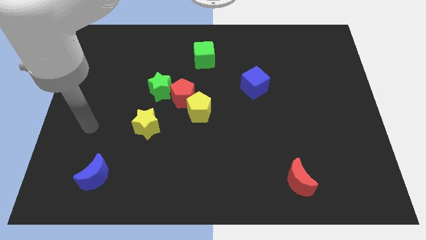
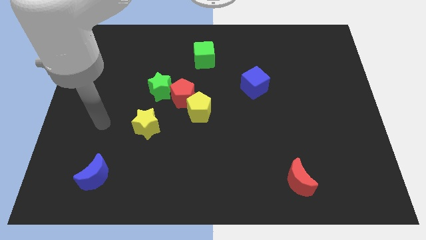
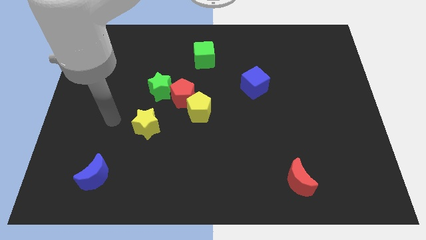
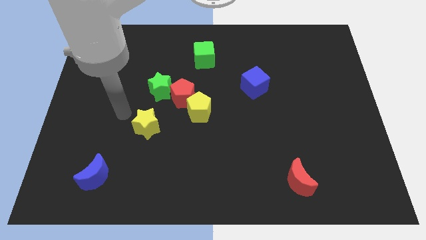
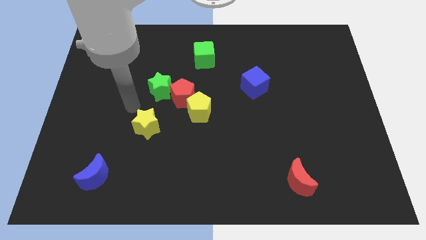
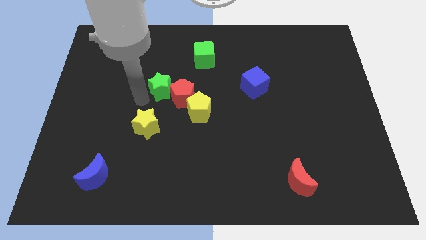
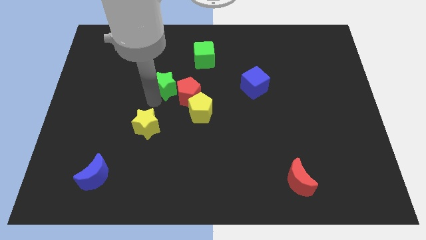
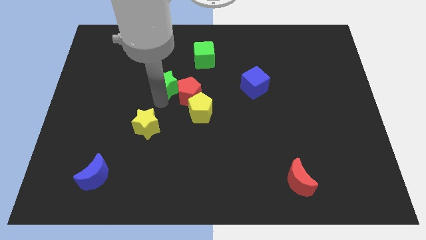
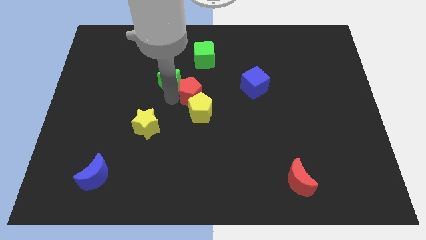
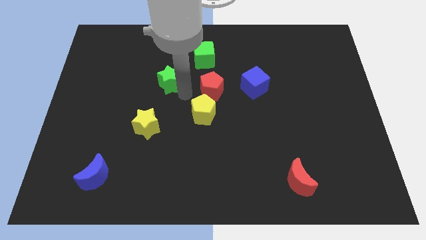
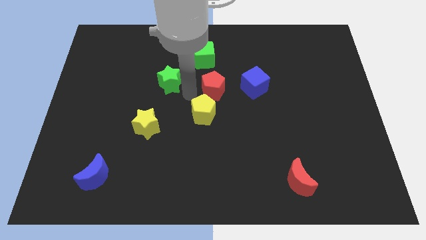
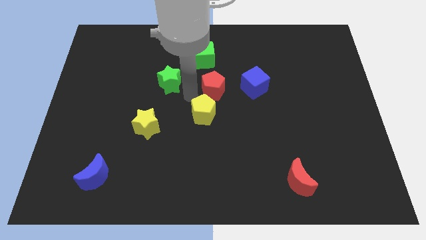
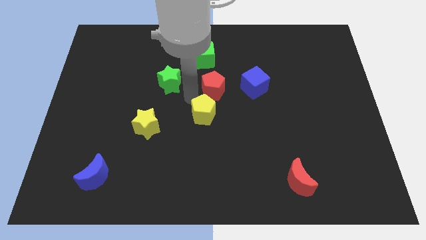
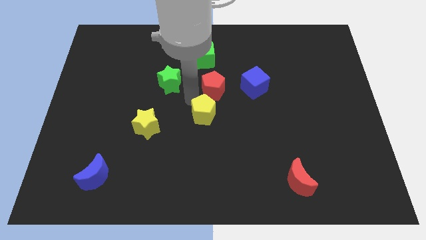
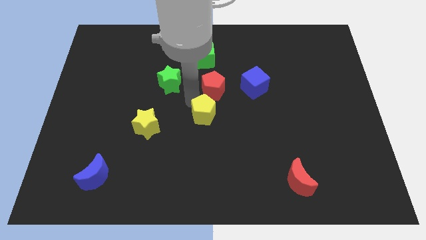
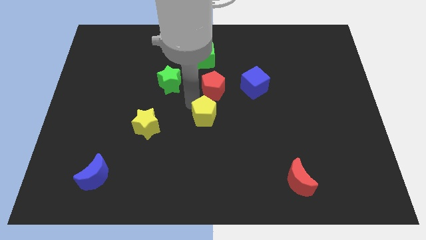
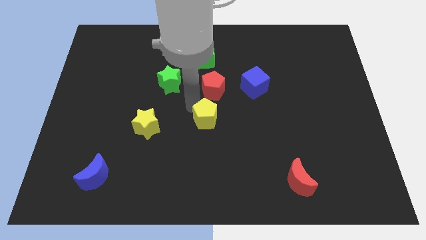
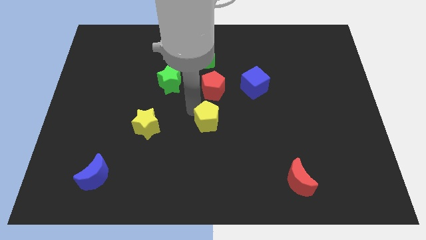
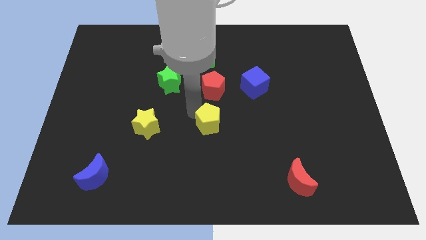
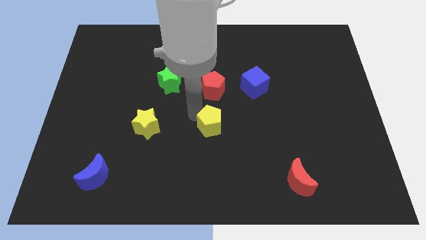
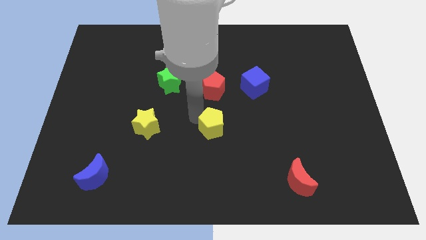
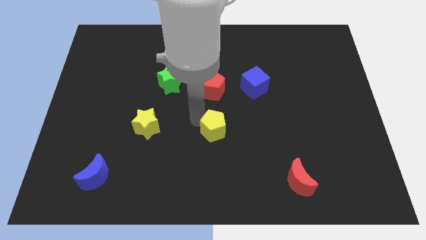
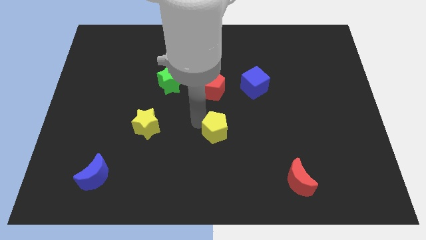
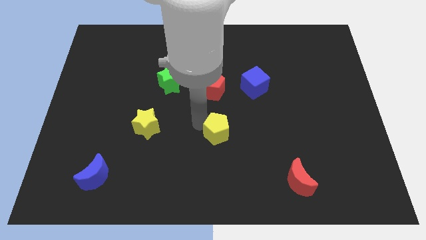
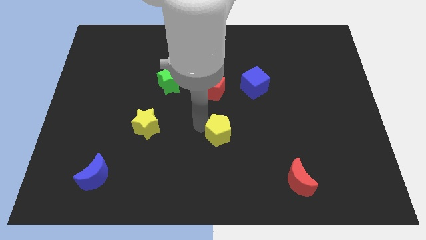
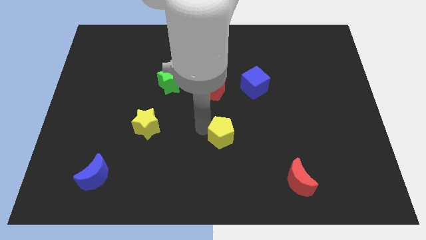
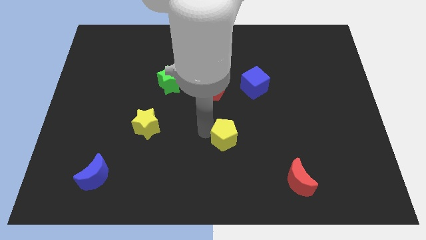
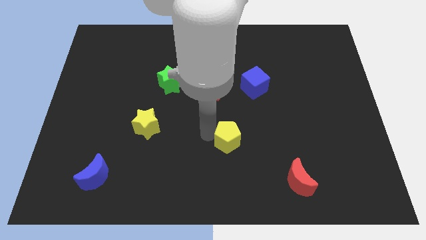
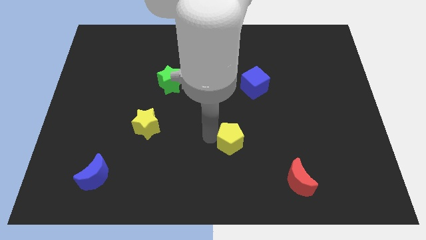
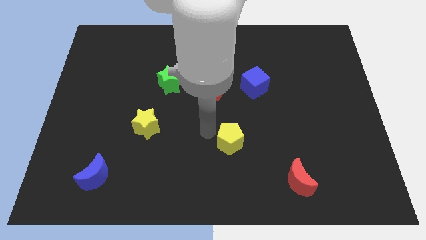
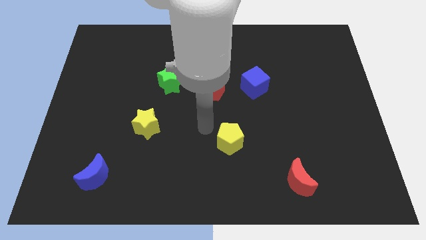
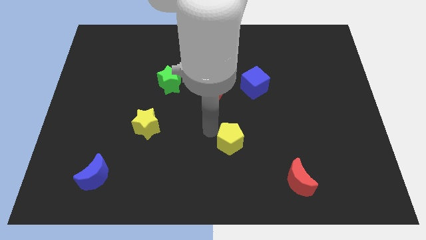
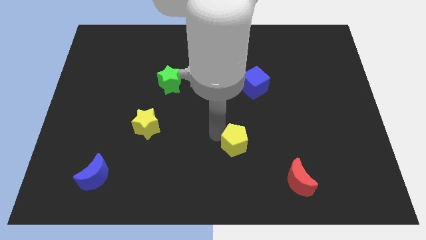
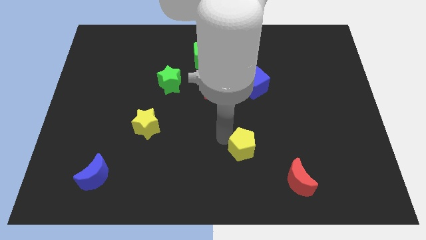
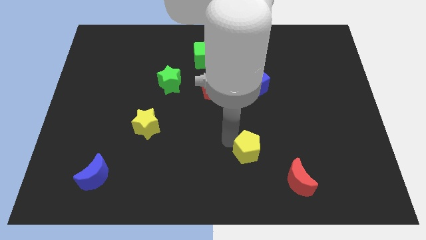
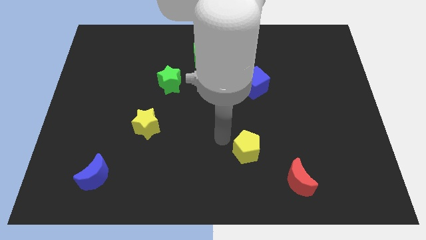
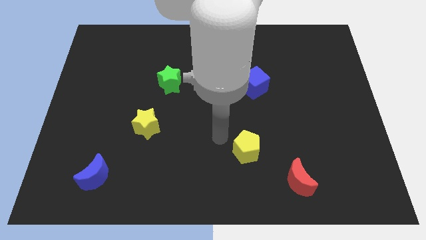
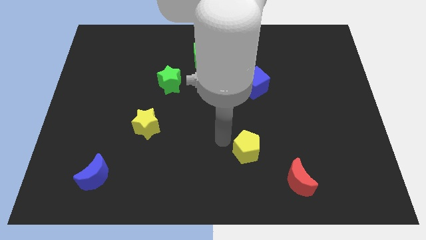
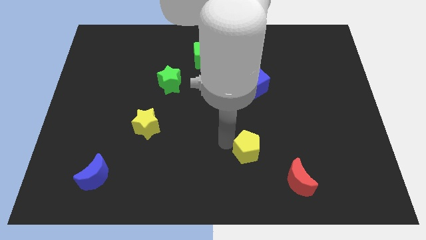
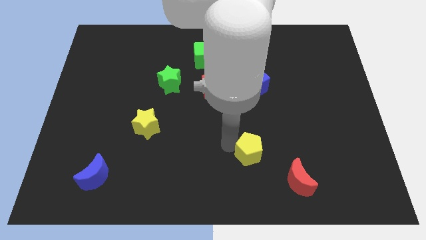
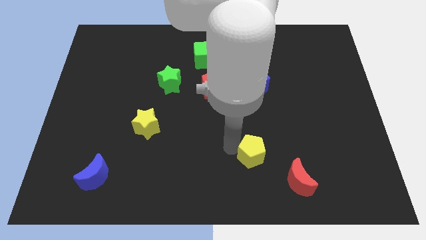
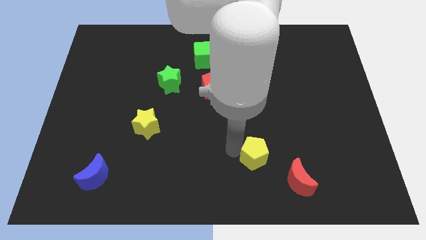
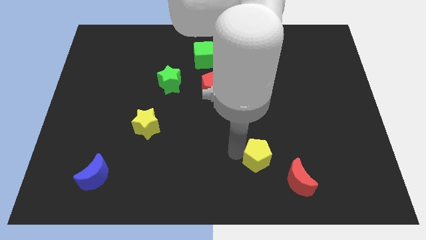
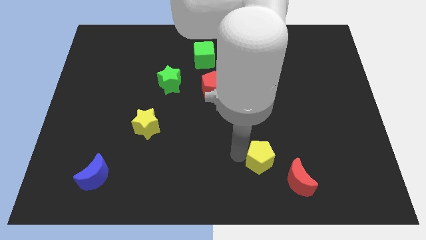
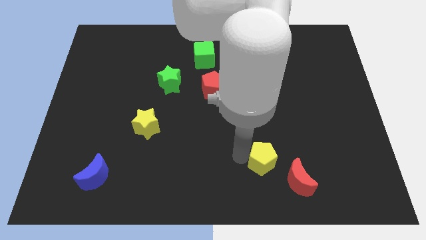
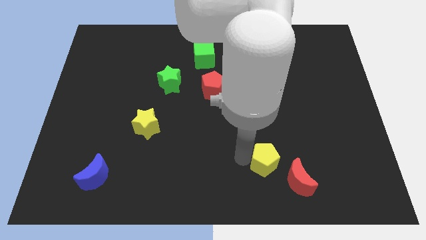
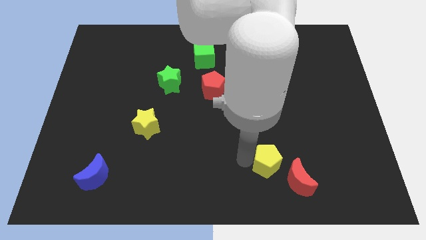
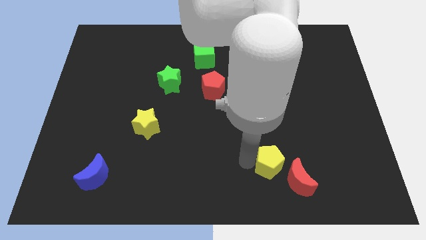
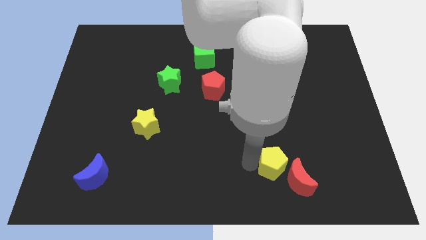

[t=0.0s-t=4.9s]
slide the yellow pentagon towards the red moon

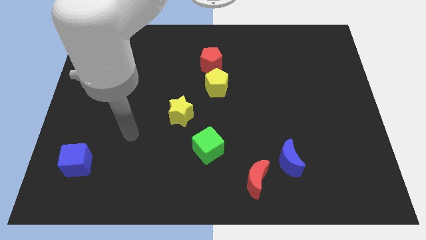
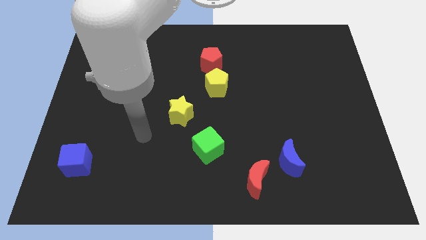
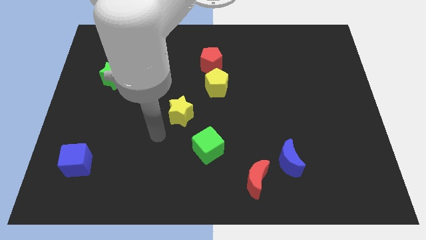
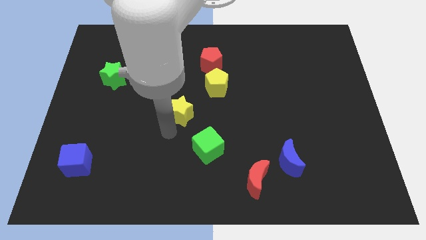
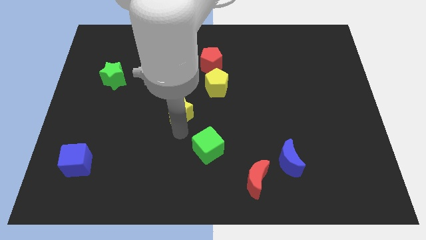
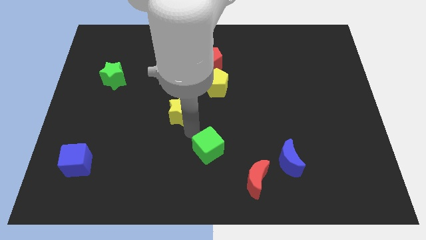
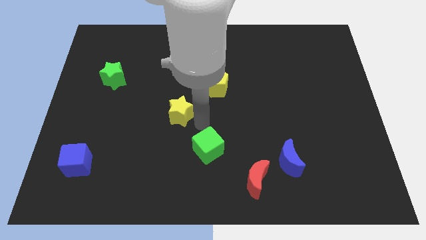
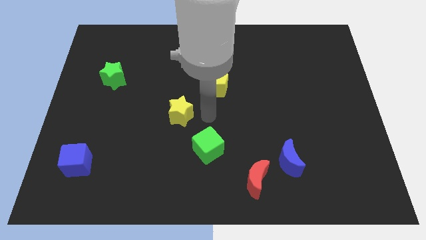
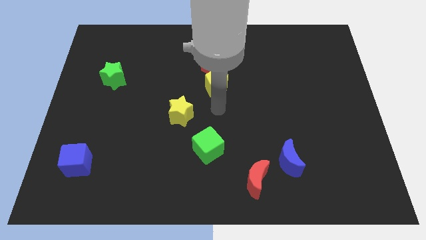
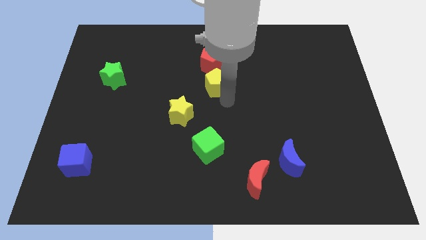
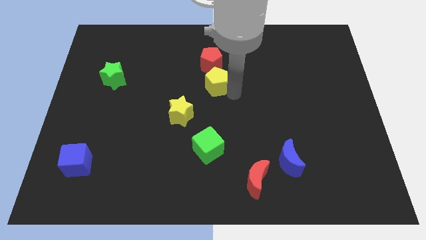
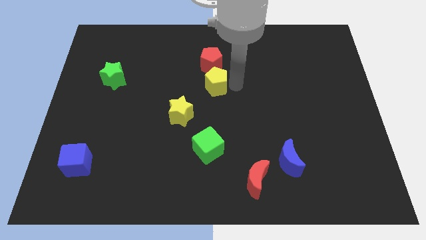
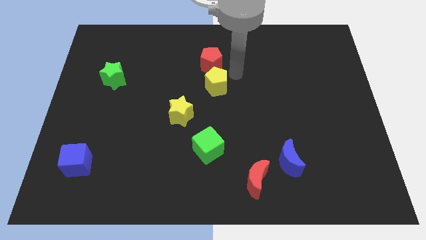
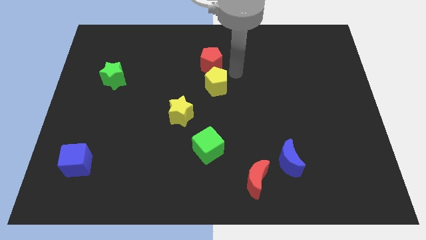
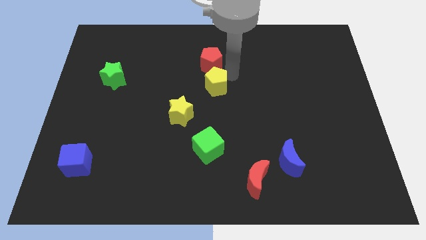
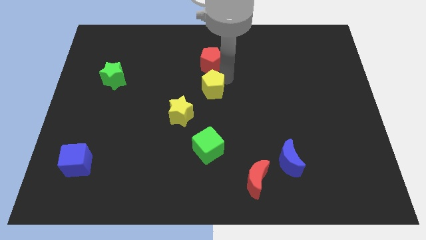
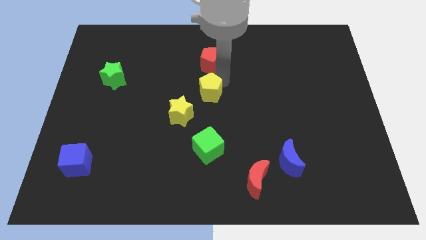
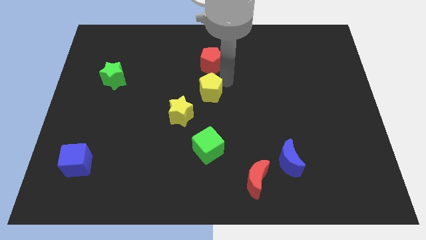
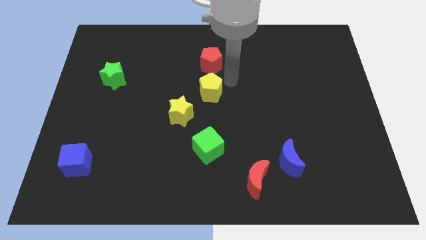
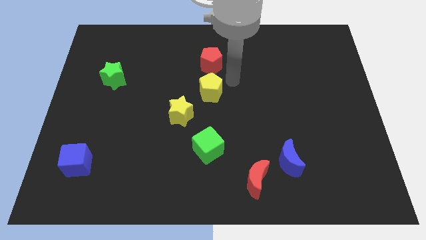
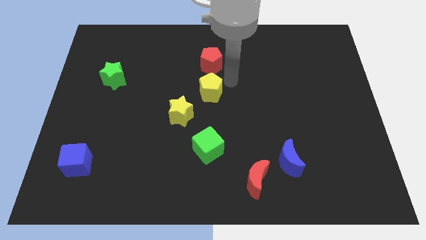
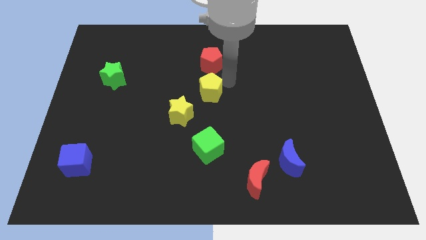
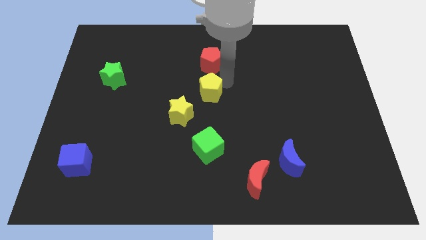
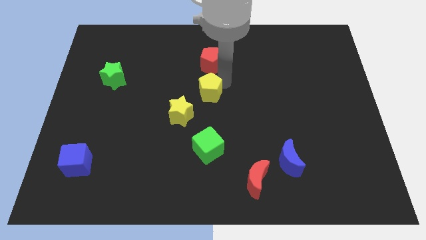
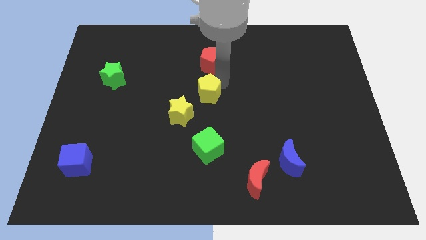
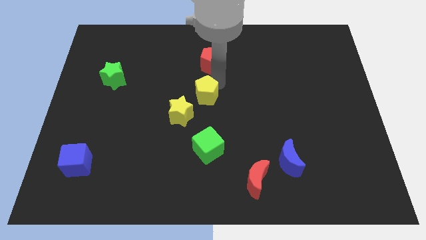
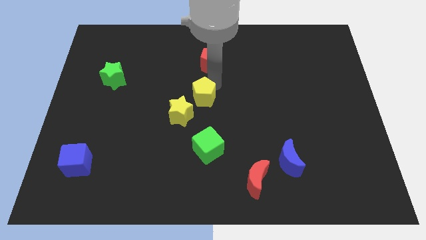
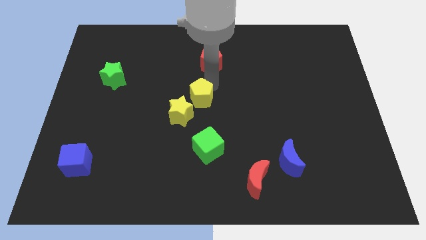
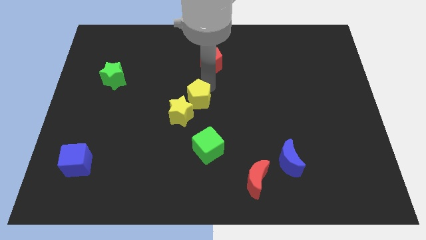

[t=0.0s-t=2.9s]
push the yellow pentagon close to the yellow star
